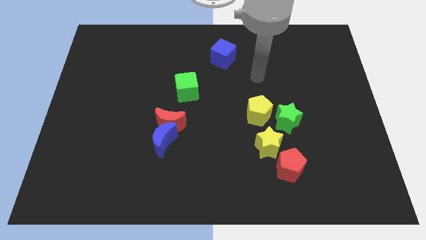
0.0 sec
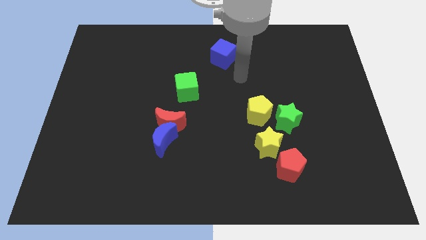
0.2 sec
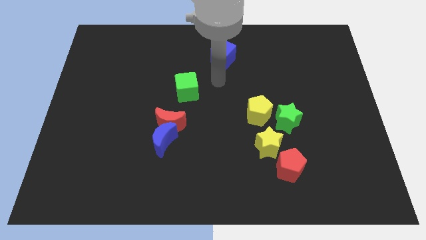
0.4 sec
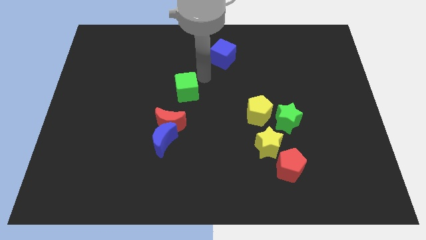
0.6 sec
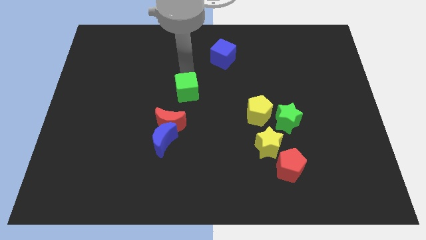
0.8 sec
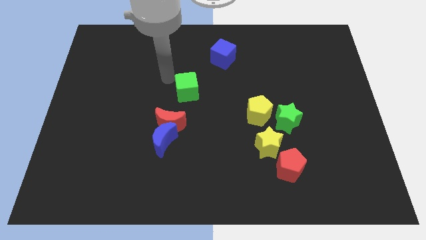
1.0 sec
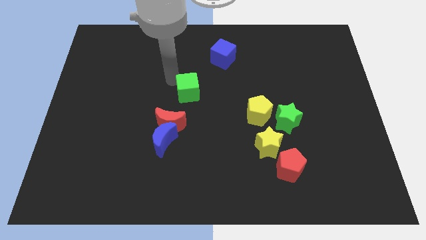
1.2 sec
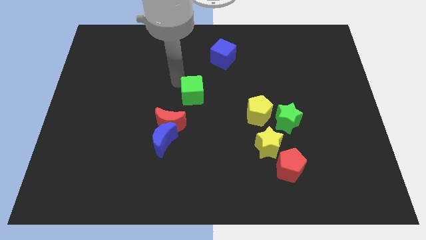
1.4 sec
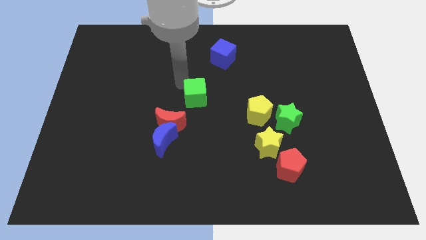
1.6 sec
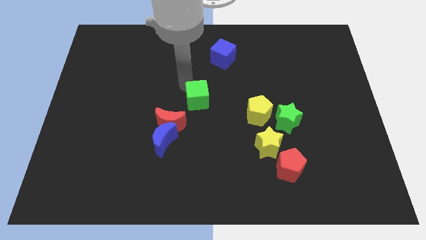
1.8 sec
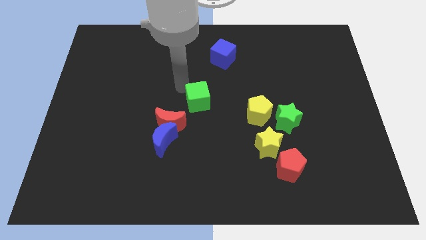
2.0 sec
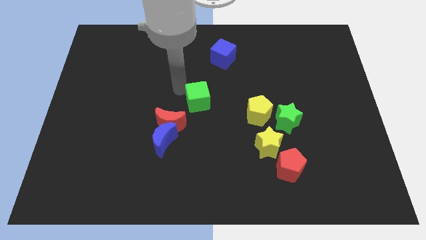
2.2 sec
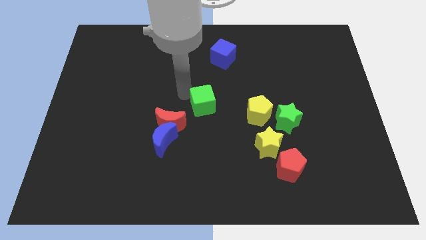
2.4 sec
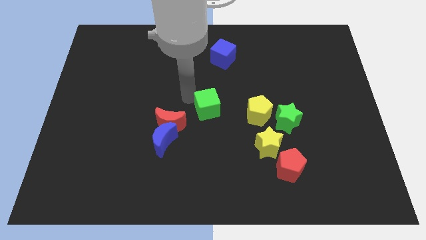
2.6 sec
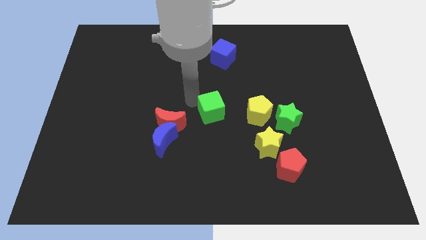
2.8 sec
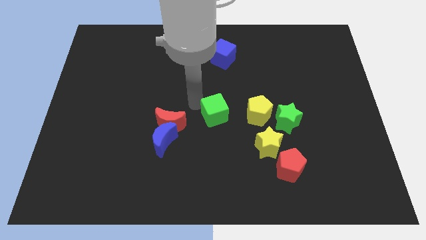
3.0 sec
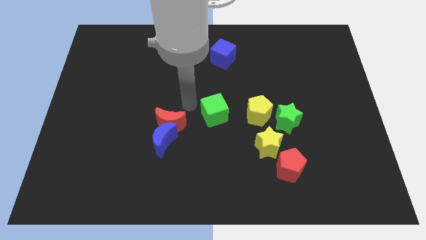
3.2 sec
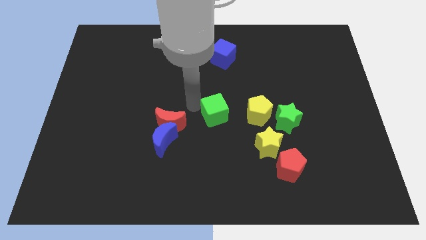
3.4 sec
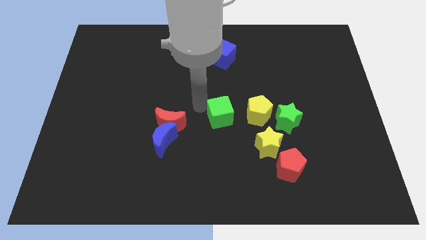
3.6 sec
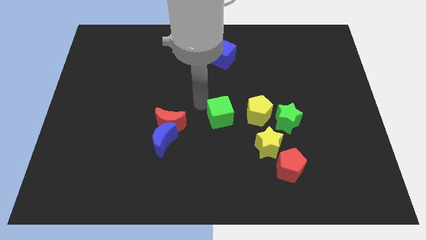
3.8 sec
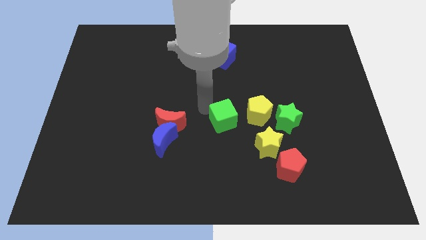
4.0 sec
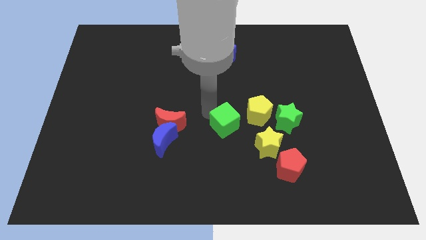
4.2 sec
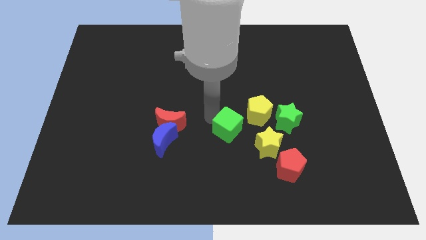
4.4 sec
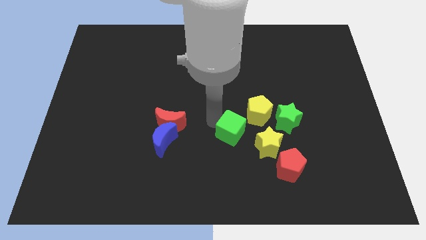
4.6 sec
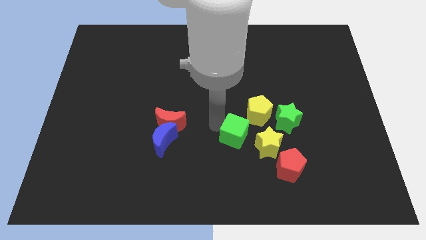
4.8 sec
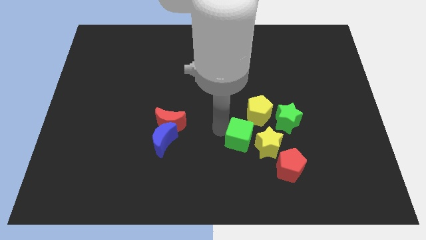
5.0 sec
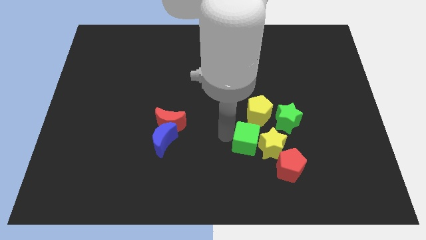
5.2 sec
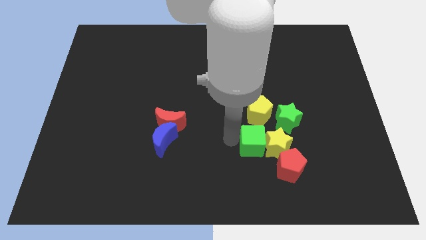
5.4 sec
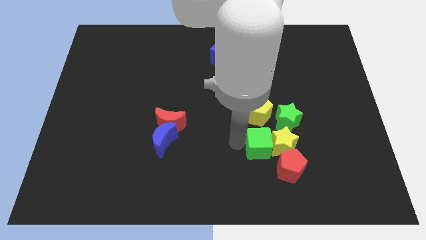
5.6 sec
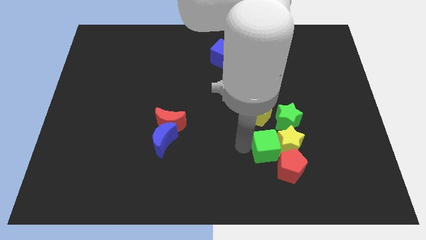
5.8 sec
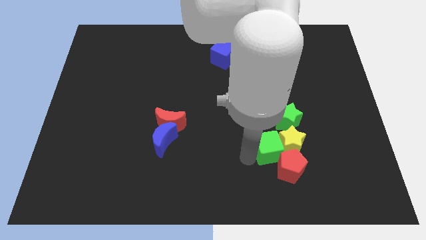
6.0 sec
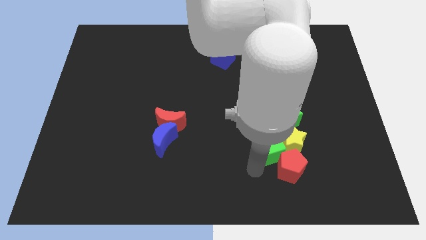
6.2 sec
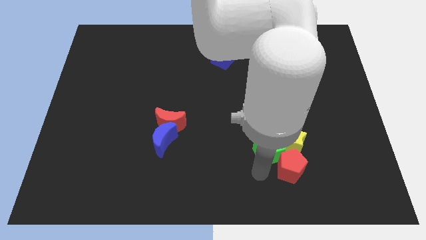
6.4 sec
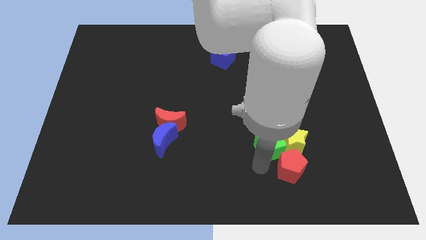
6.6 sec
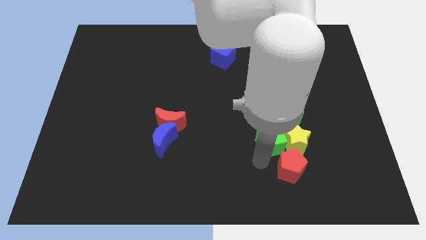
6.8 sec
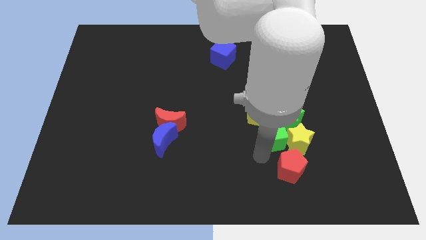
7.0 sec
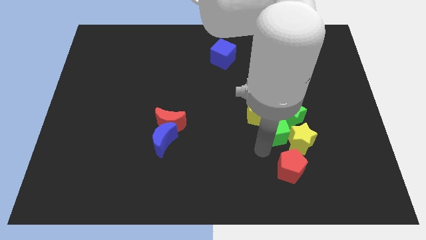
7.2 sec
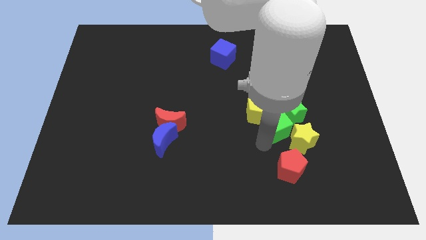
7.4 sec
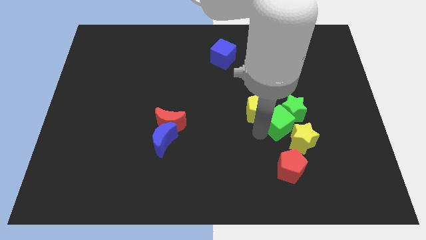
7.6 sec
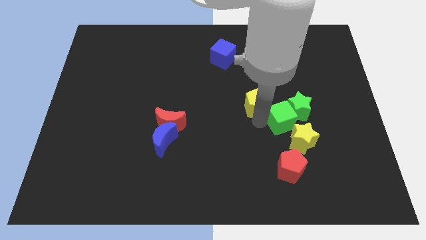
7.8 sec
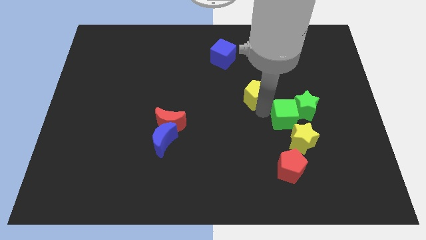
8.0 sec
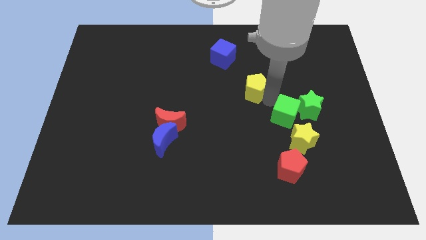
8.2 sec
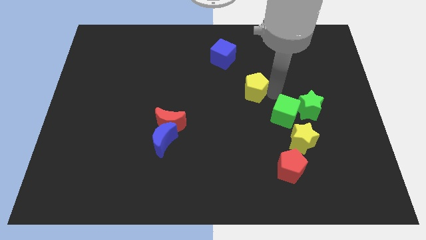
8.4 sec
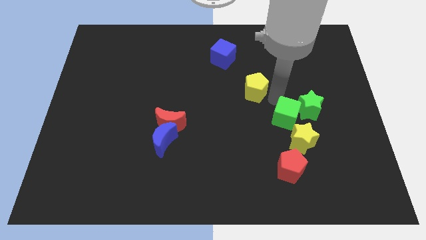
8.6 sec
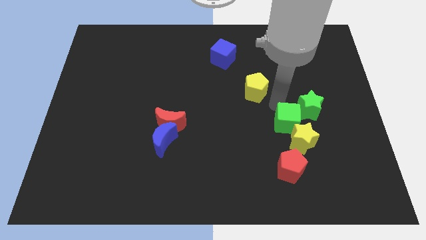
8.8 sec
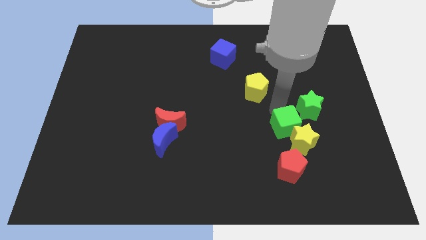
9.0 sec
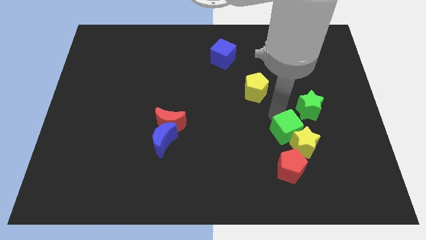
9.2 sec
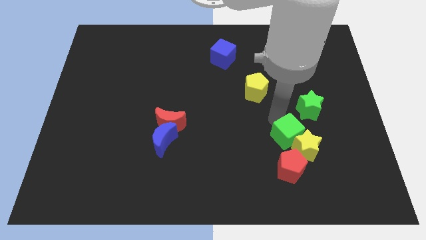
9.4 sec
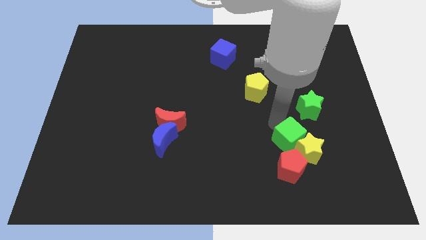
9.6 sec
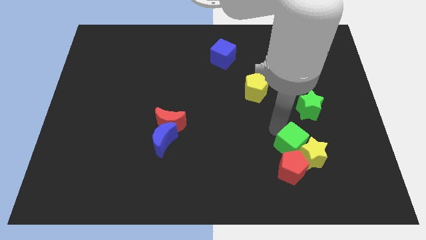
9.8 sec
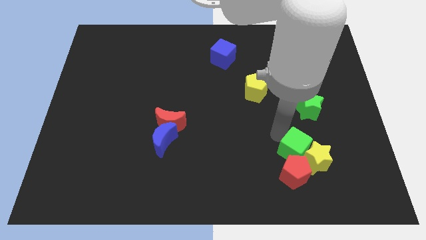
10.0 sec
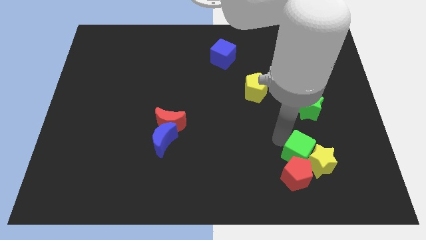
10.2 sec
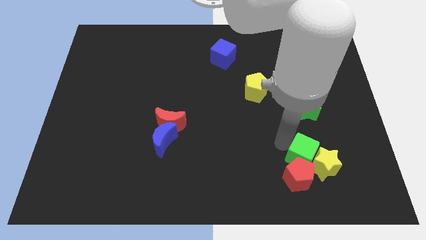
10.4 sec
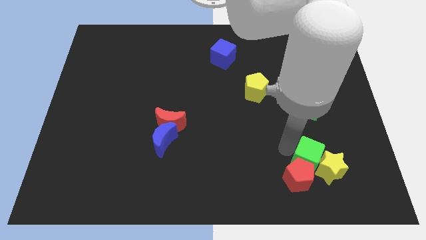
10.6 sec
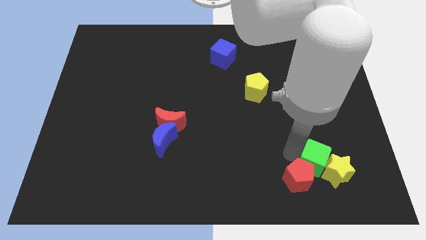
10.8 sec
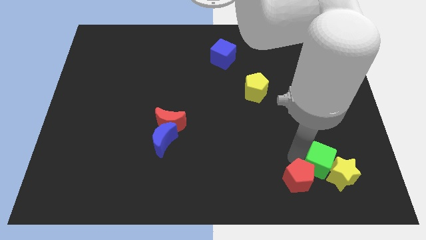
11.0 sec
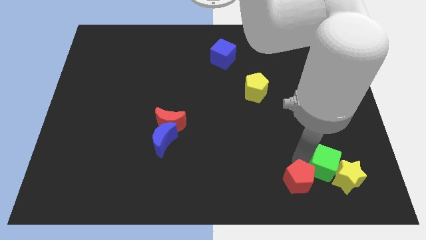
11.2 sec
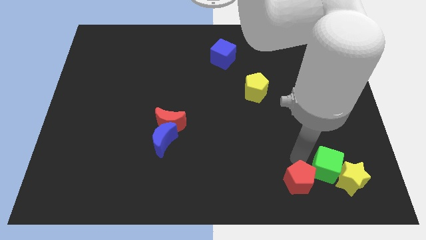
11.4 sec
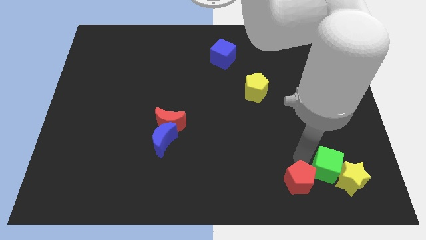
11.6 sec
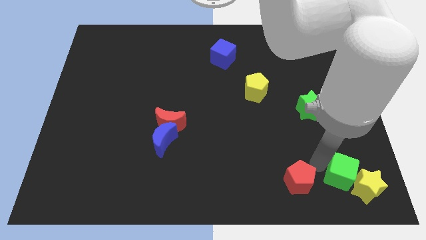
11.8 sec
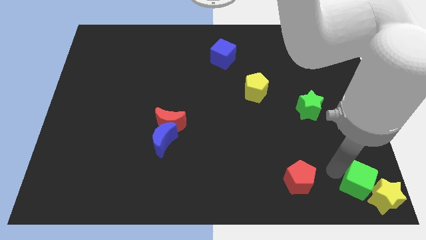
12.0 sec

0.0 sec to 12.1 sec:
slide the green cube to the lower right corner
